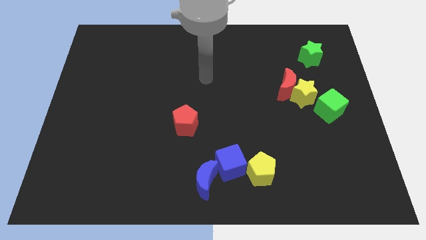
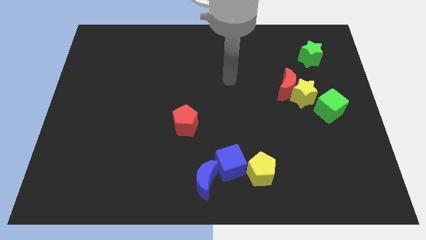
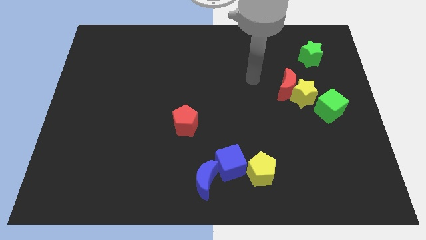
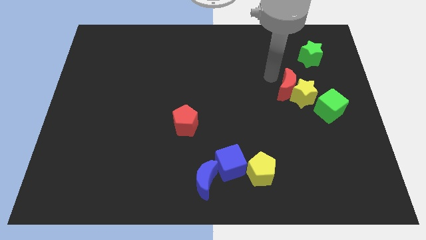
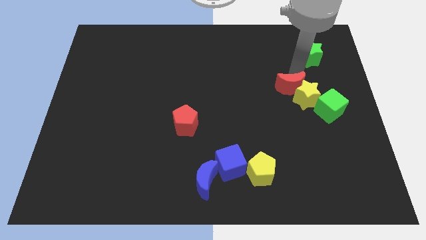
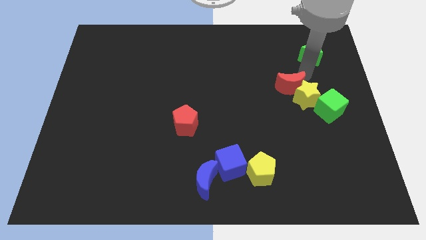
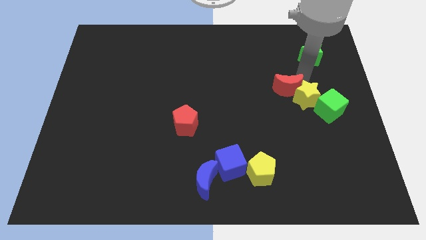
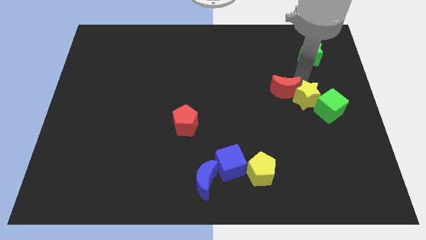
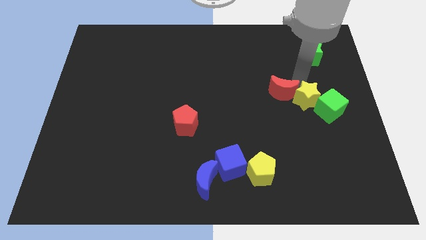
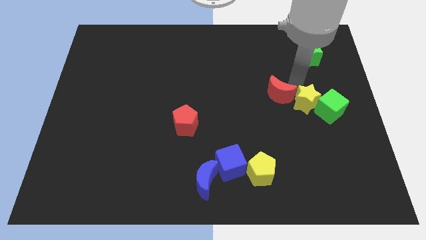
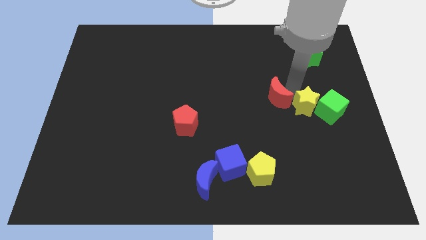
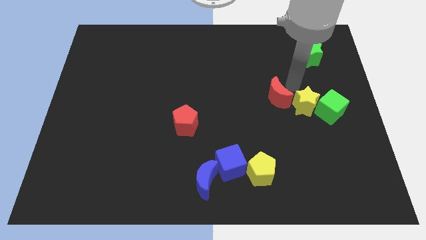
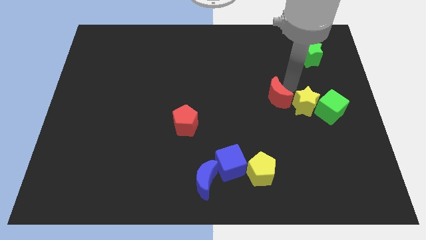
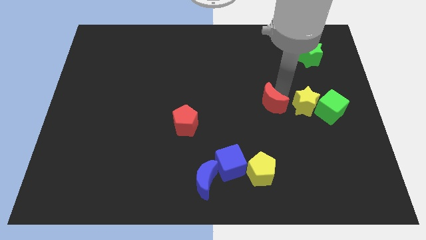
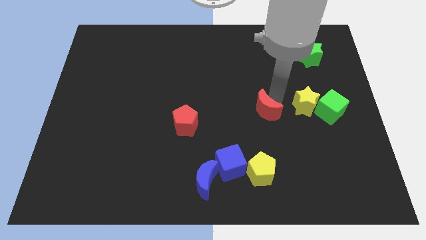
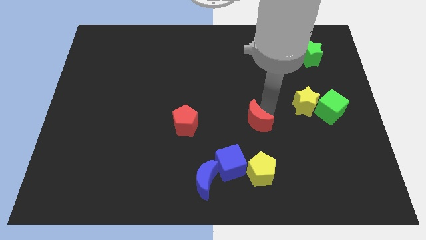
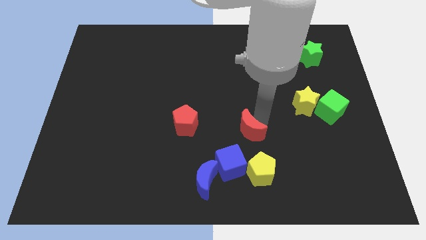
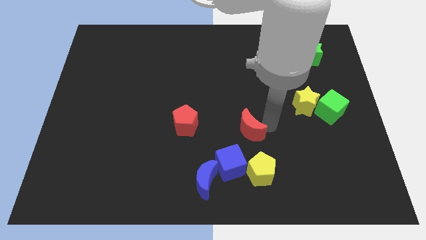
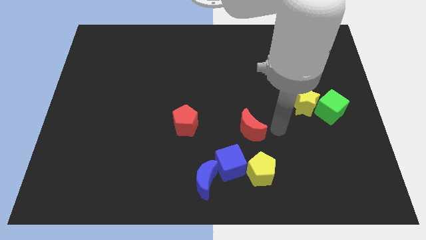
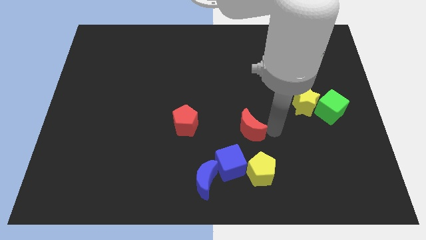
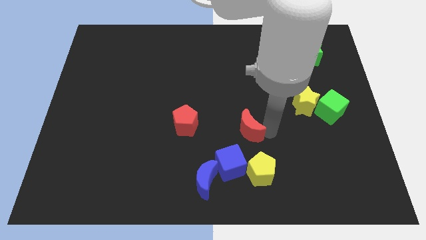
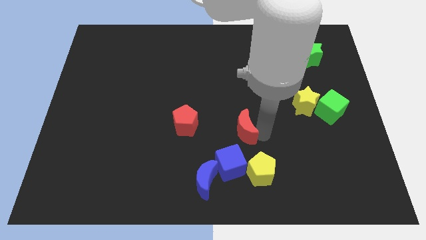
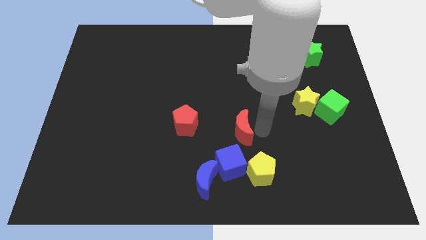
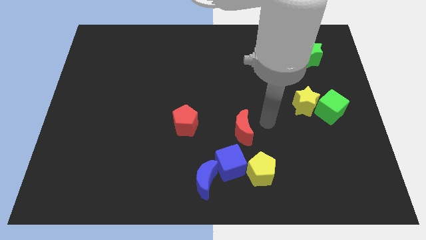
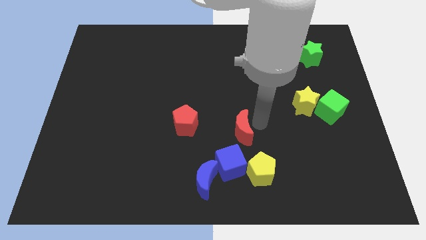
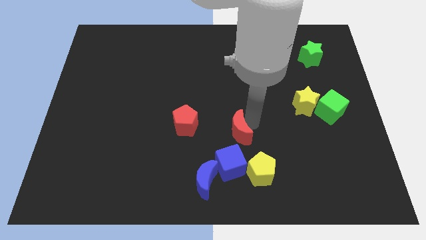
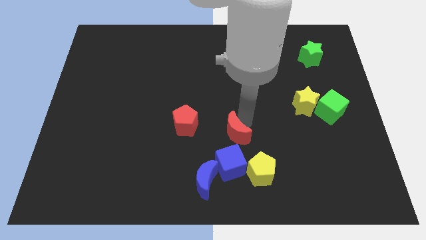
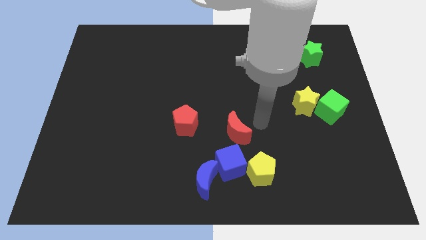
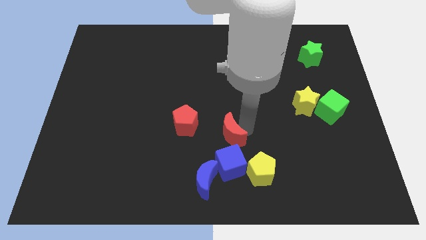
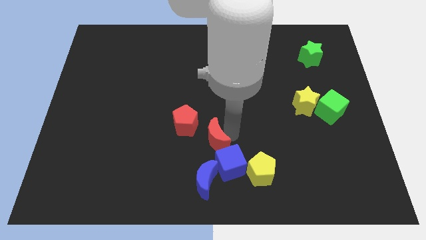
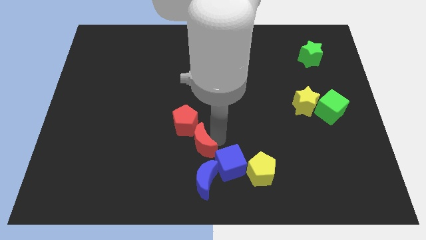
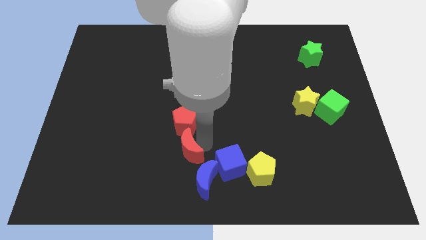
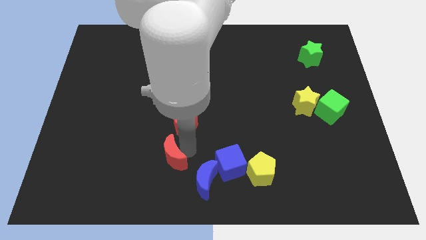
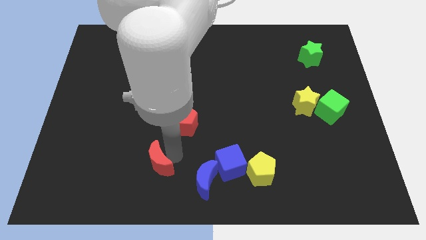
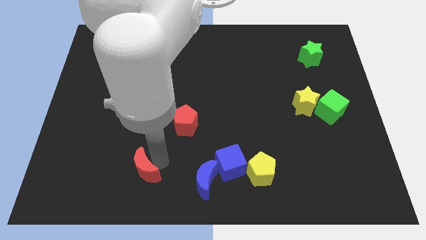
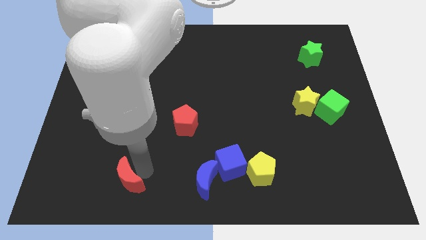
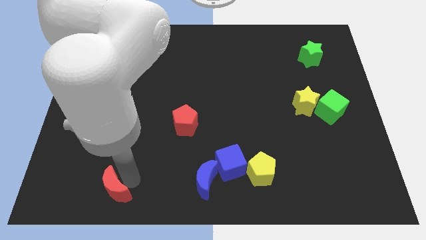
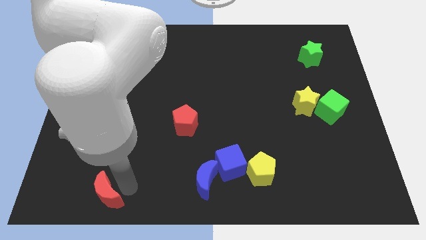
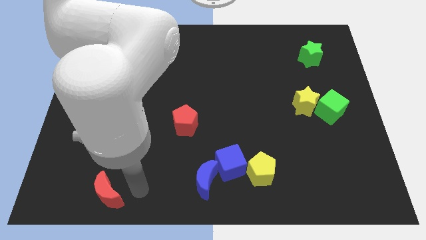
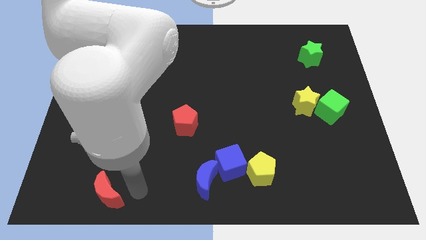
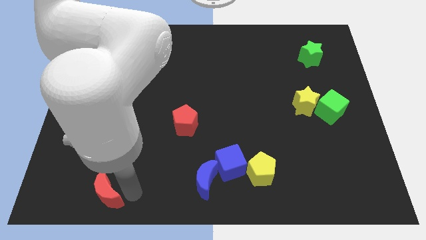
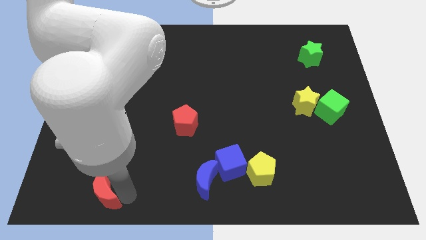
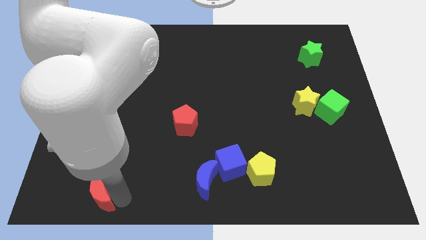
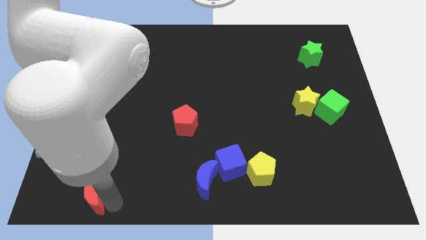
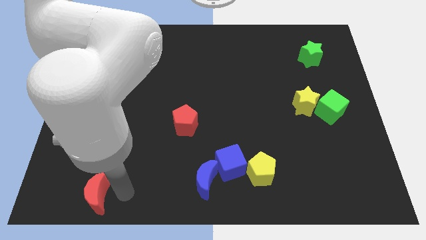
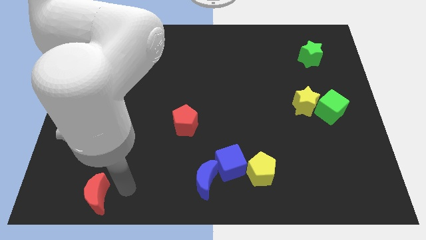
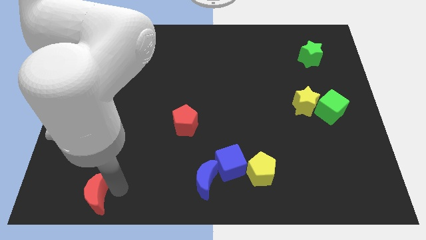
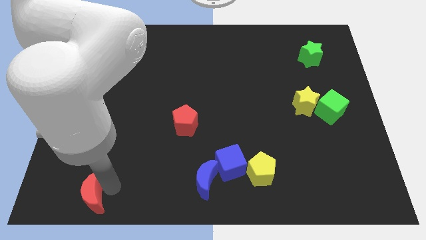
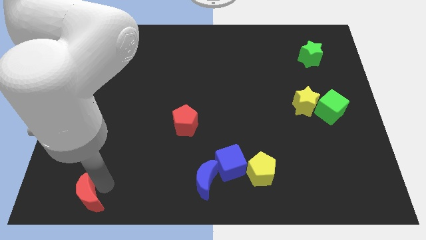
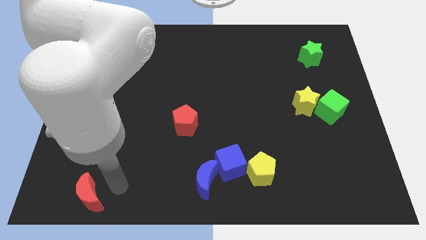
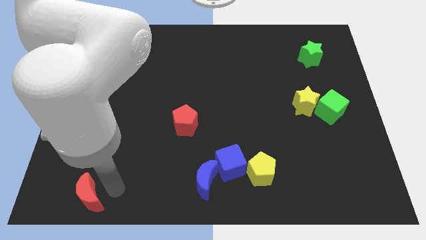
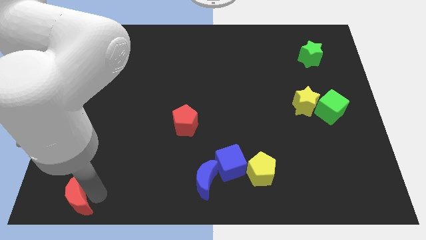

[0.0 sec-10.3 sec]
slide the red moon to the bottom left

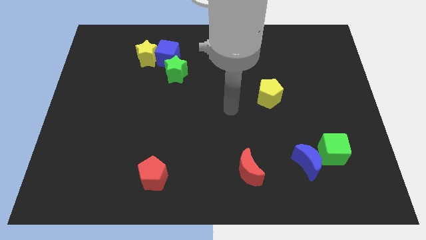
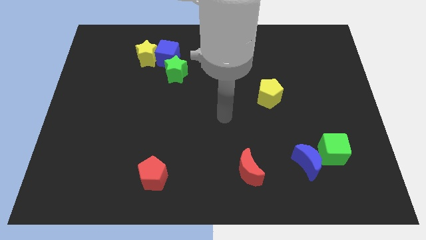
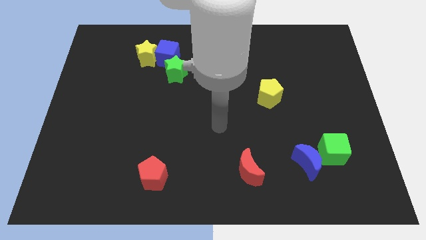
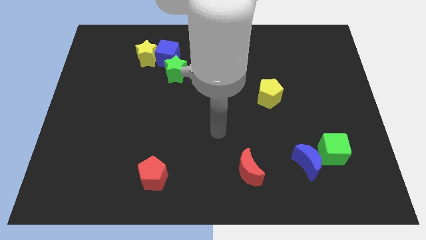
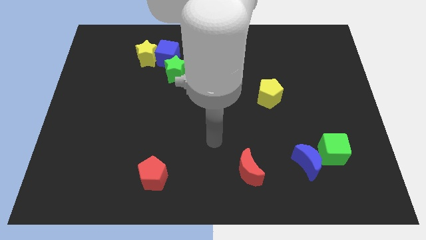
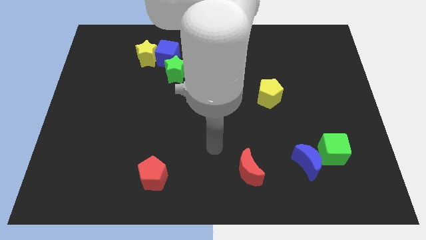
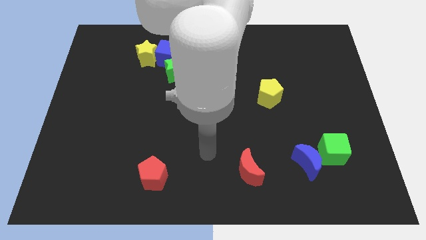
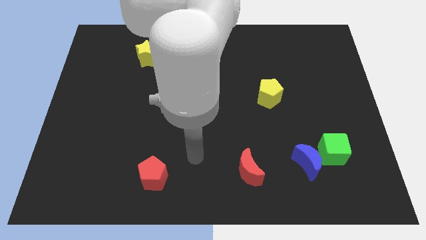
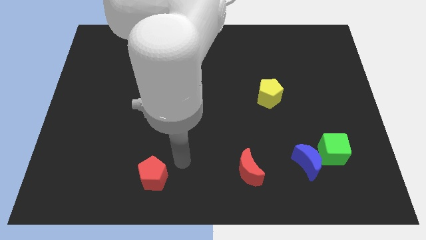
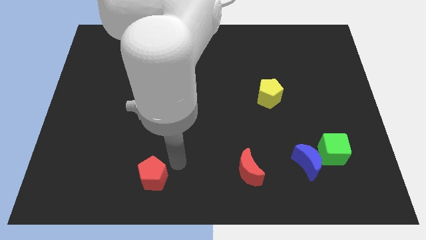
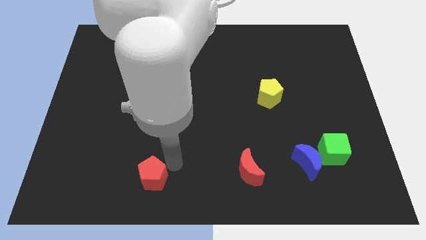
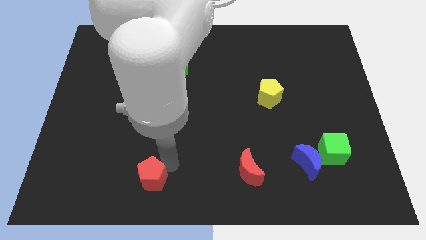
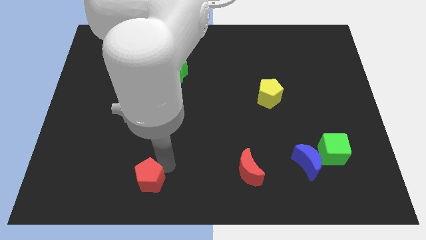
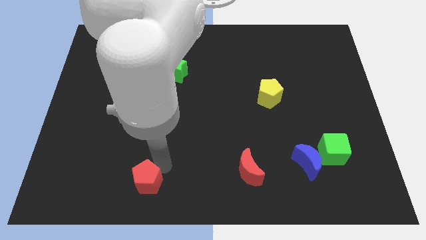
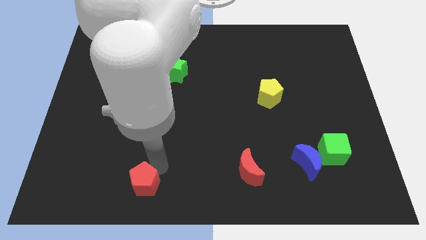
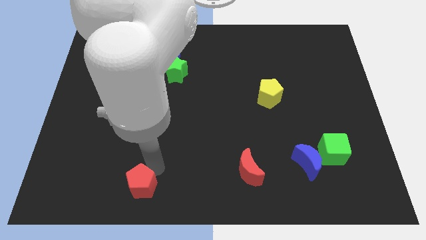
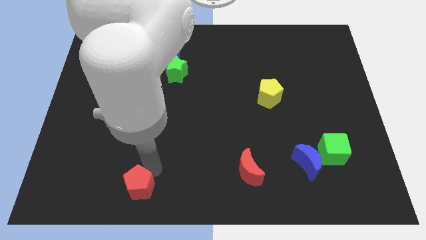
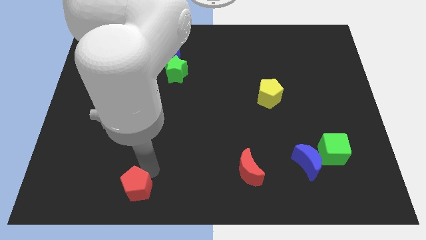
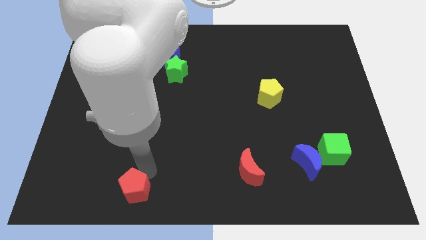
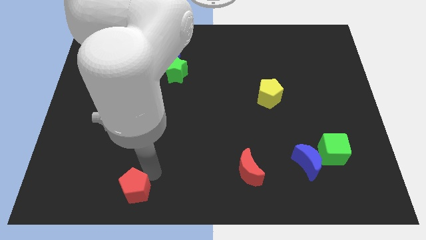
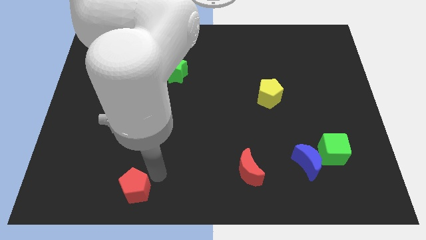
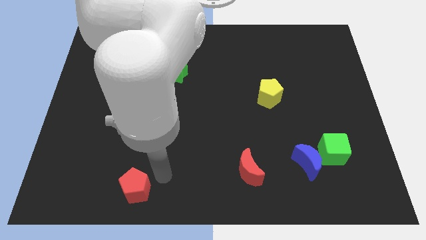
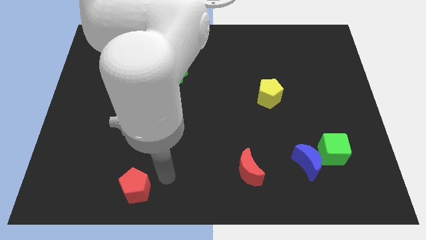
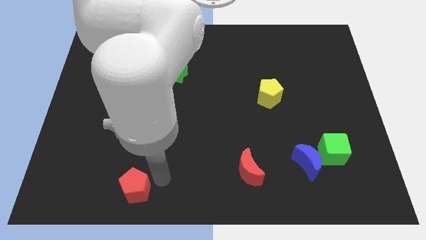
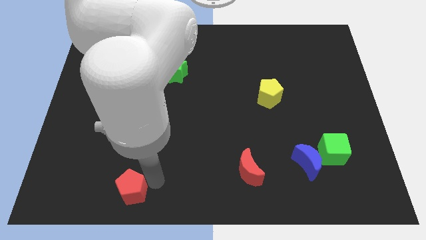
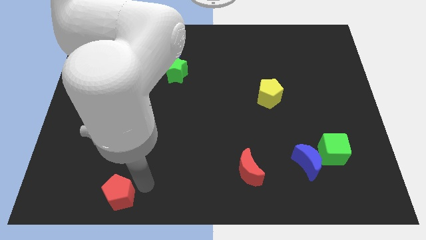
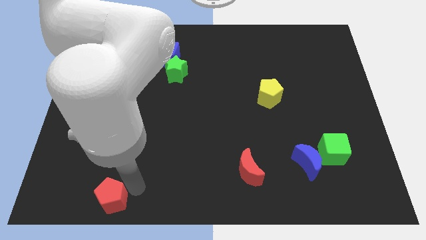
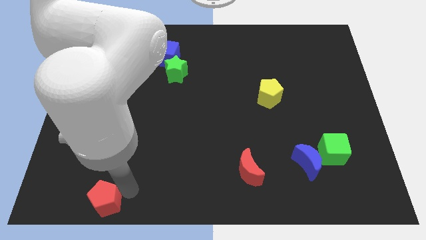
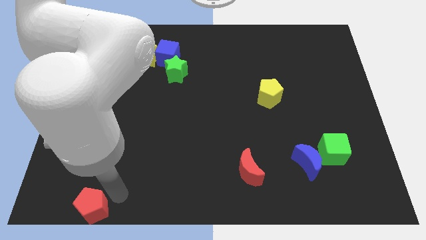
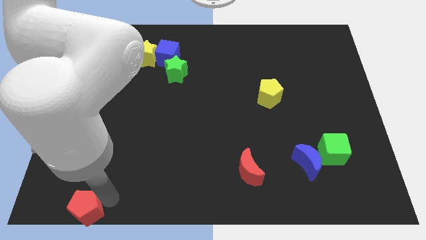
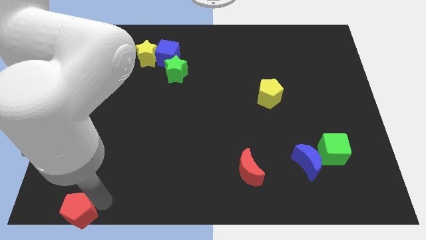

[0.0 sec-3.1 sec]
push the red pentagon to the bottom left of the board

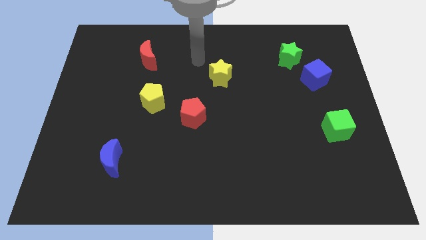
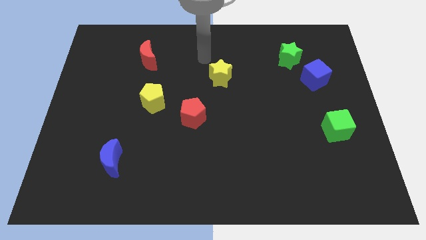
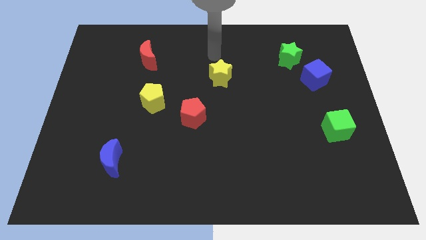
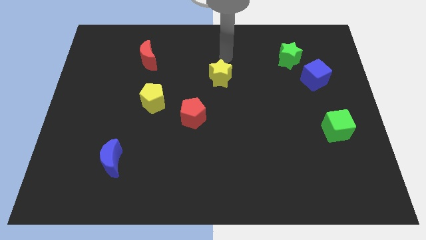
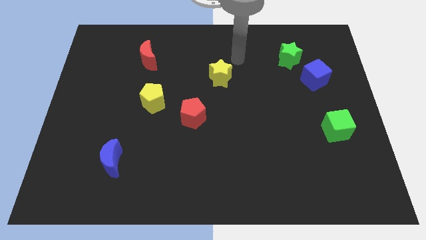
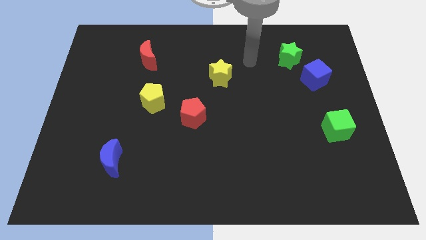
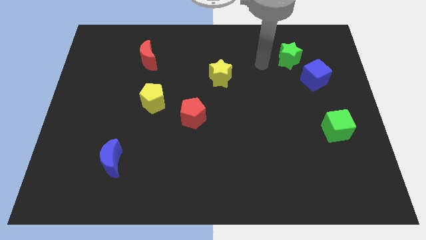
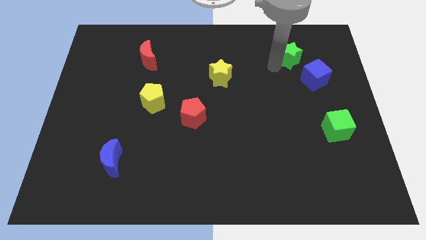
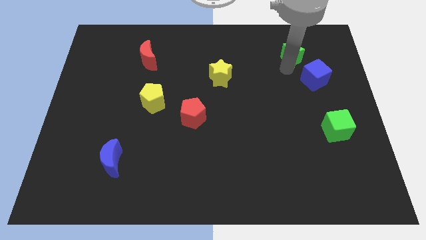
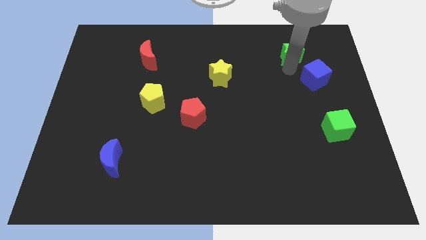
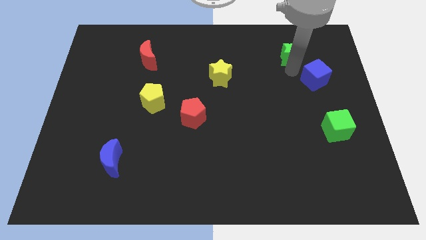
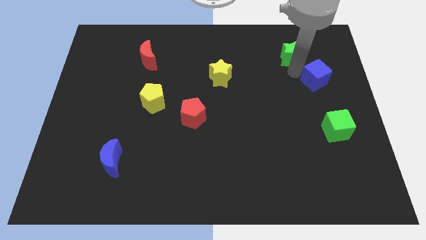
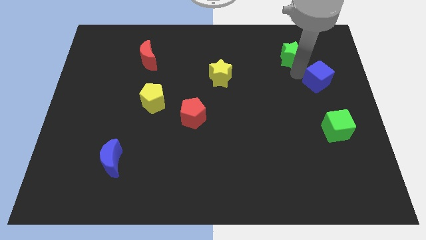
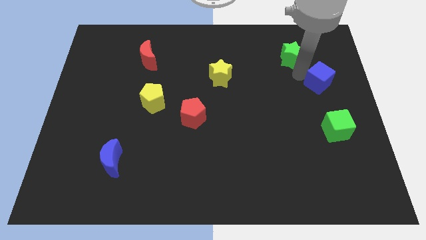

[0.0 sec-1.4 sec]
push the blue cube to the right side of the board
